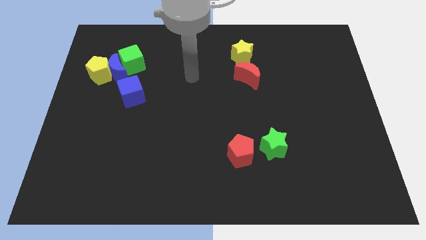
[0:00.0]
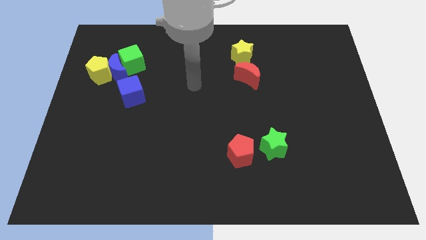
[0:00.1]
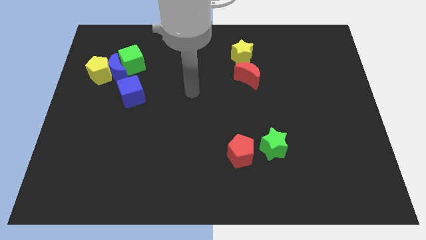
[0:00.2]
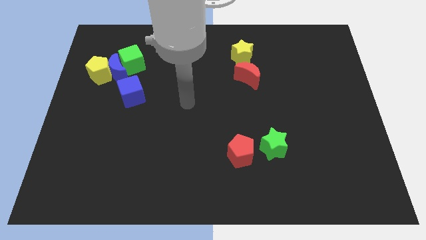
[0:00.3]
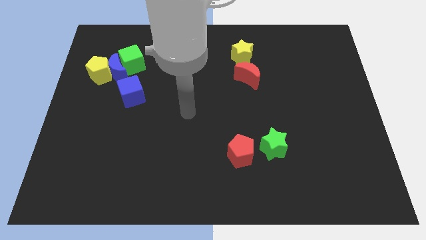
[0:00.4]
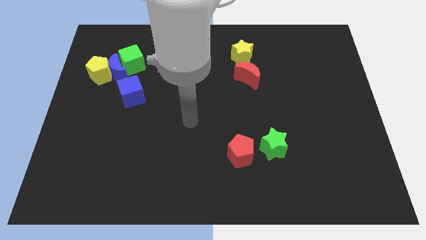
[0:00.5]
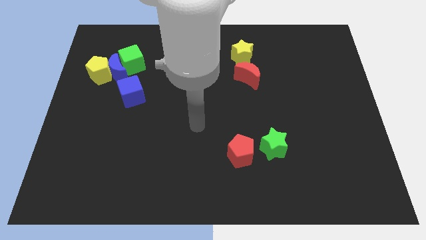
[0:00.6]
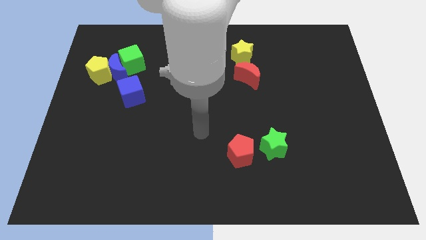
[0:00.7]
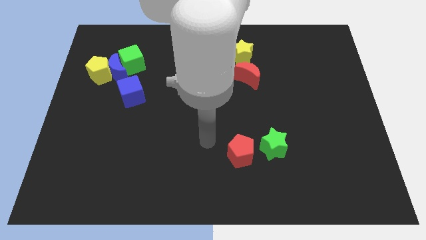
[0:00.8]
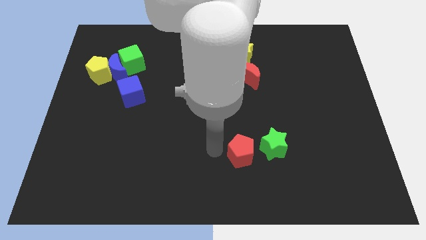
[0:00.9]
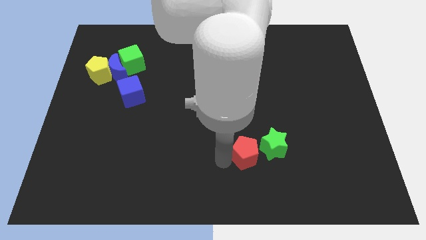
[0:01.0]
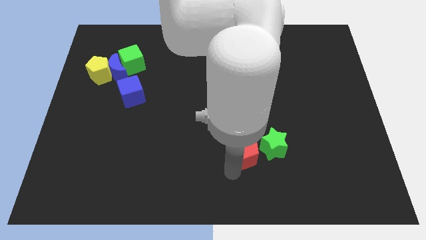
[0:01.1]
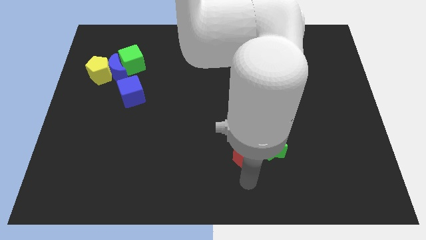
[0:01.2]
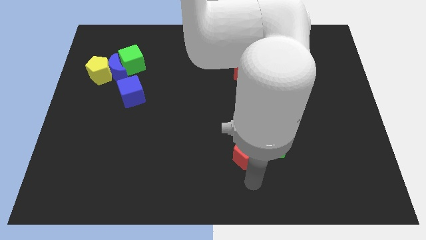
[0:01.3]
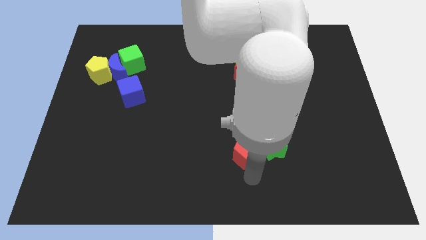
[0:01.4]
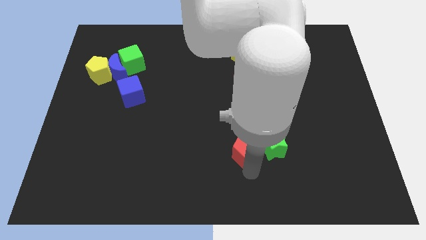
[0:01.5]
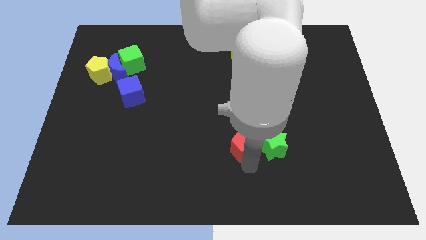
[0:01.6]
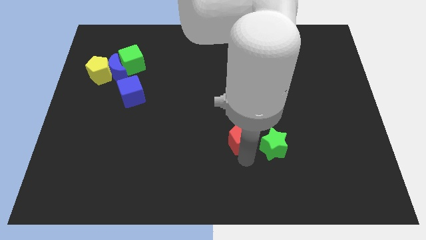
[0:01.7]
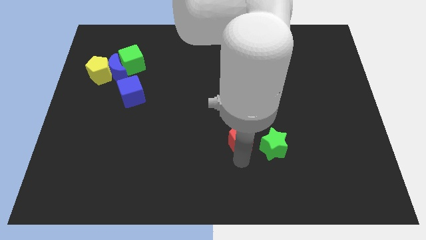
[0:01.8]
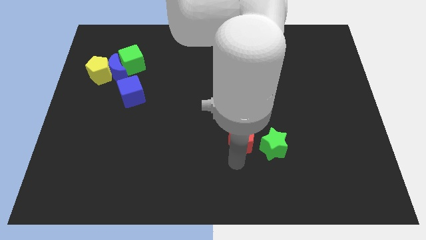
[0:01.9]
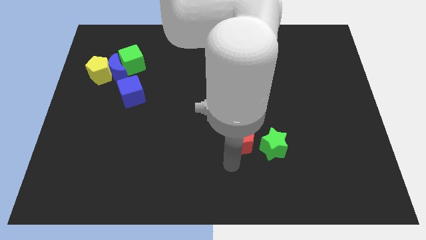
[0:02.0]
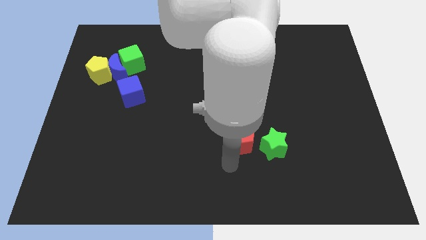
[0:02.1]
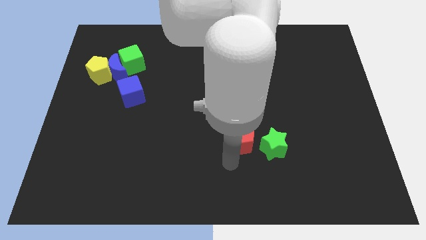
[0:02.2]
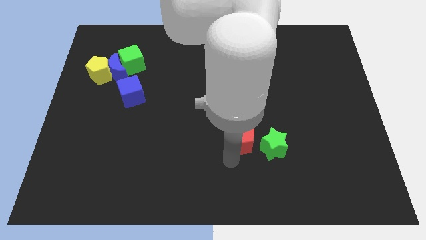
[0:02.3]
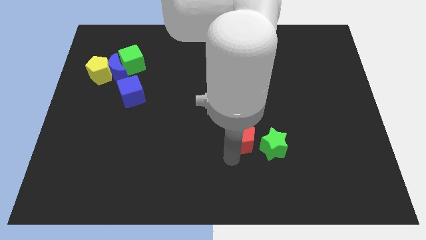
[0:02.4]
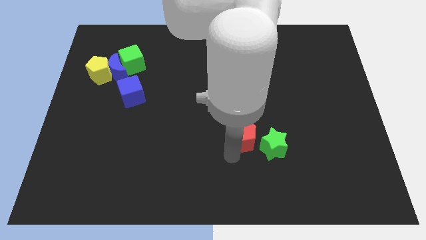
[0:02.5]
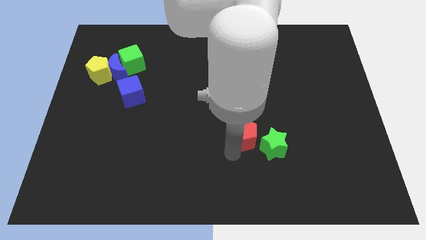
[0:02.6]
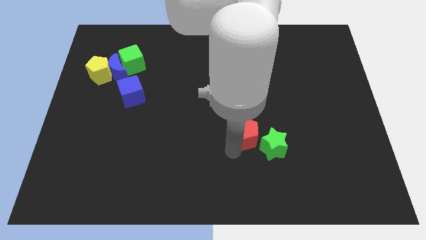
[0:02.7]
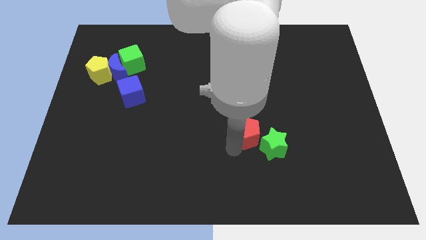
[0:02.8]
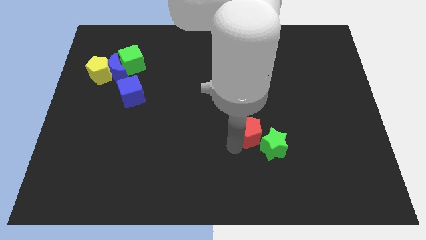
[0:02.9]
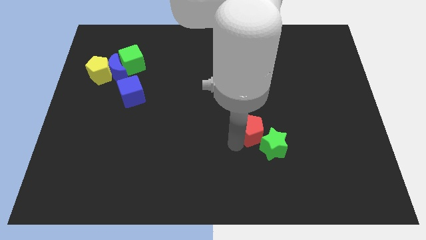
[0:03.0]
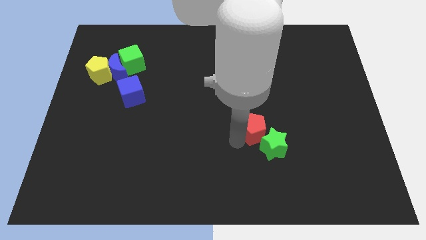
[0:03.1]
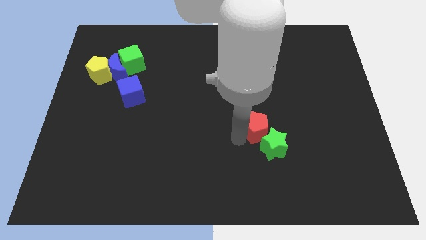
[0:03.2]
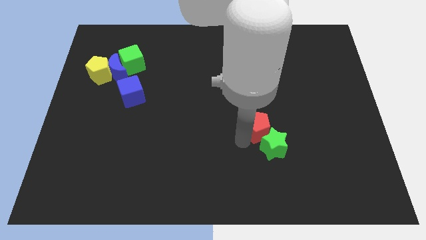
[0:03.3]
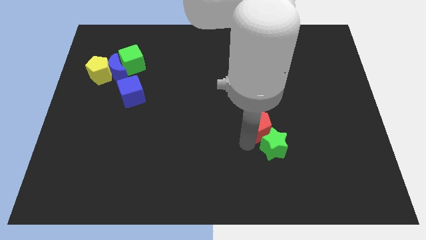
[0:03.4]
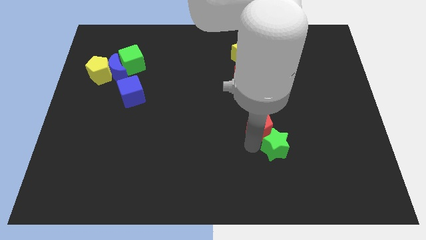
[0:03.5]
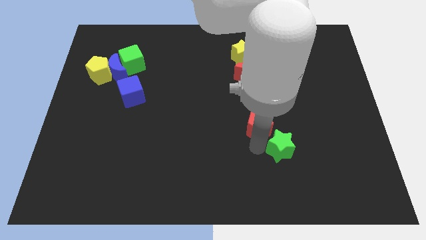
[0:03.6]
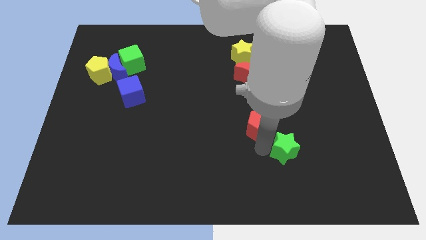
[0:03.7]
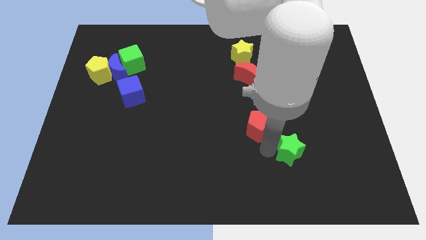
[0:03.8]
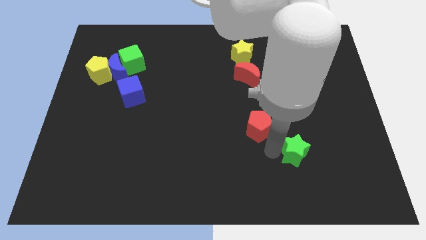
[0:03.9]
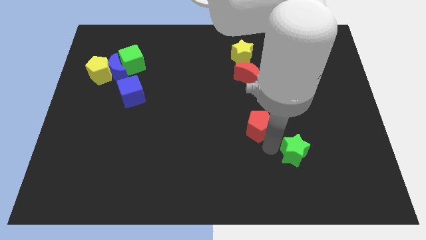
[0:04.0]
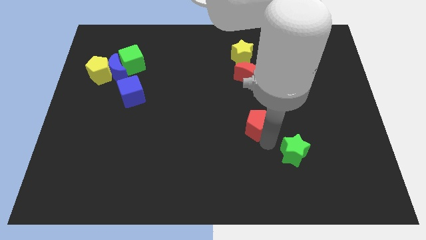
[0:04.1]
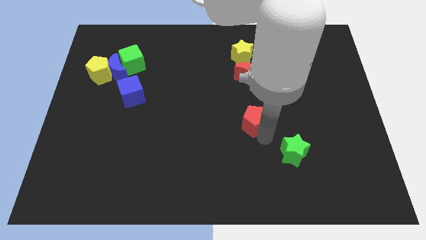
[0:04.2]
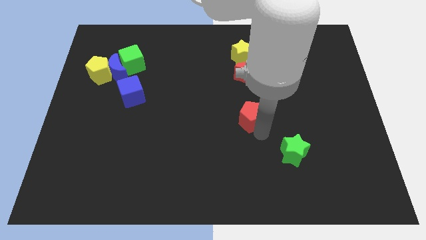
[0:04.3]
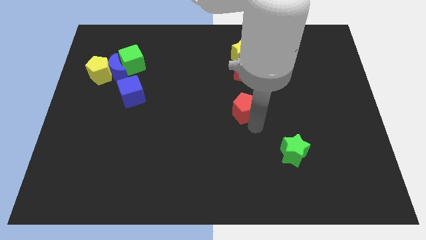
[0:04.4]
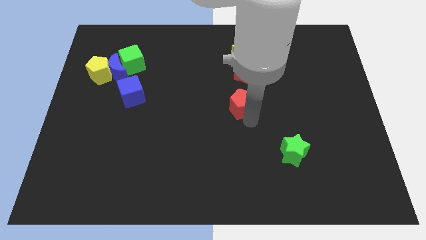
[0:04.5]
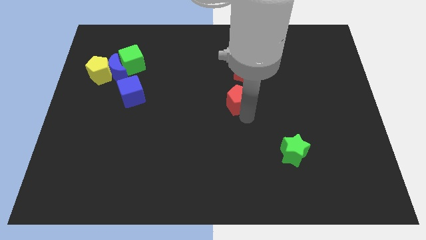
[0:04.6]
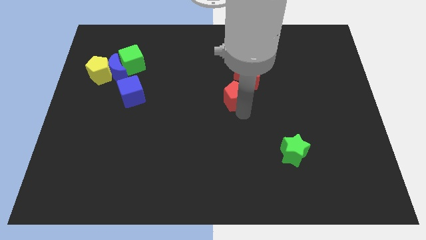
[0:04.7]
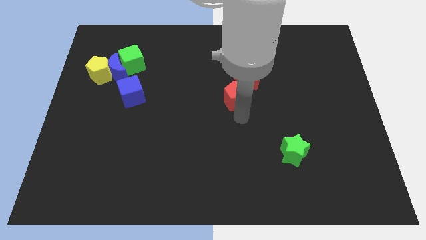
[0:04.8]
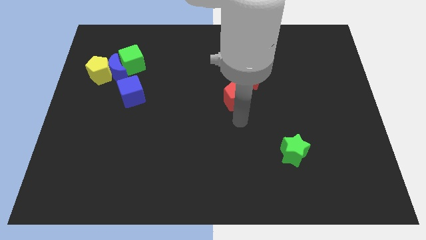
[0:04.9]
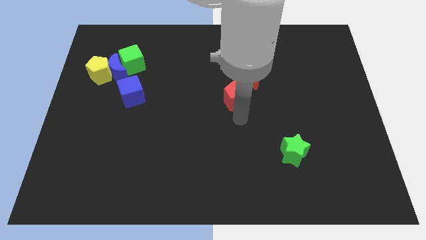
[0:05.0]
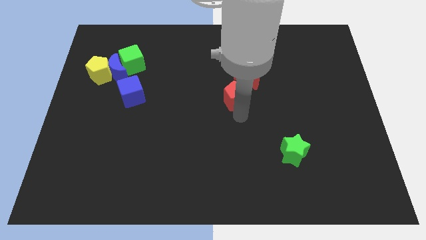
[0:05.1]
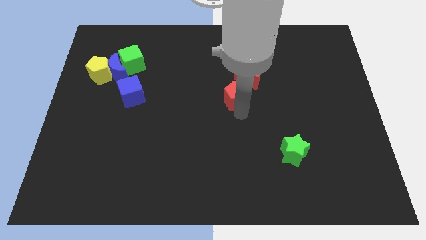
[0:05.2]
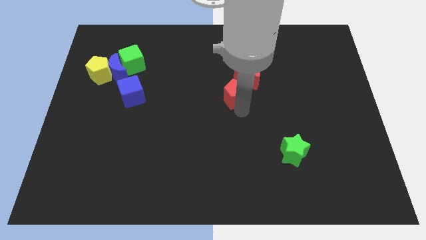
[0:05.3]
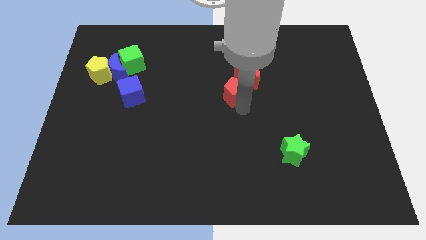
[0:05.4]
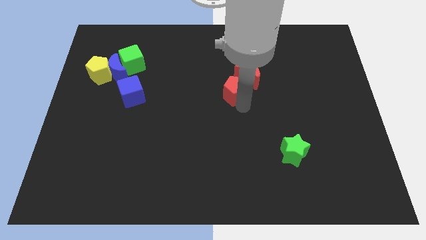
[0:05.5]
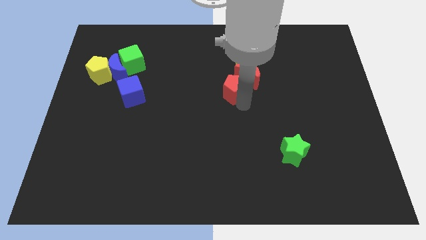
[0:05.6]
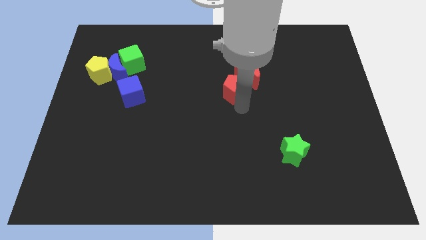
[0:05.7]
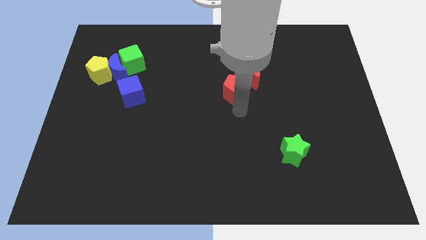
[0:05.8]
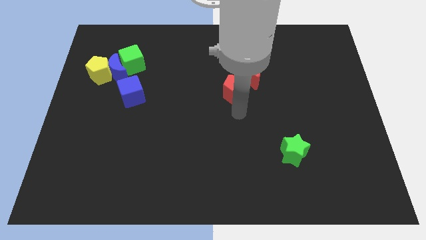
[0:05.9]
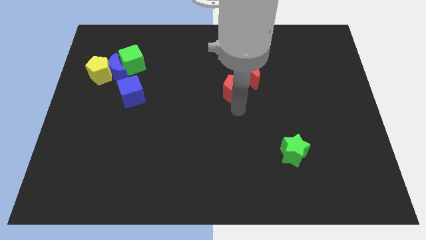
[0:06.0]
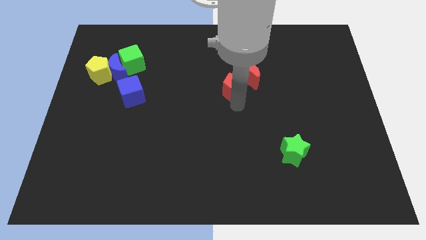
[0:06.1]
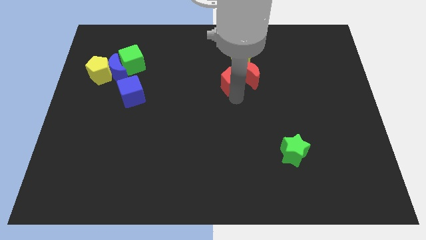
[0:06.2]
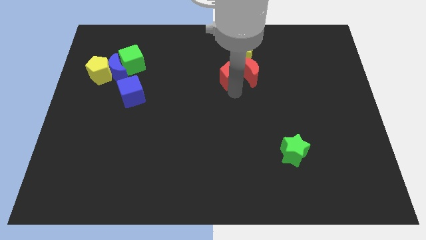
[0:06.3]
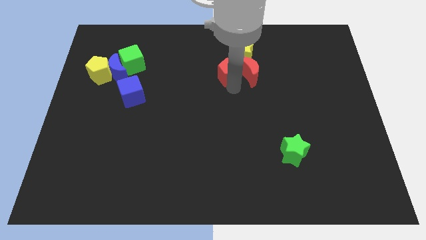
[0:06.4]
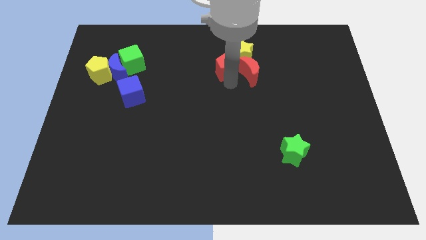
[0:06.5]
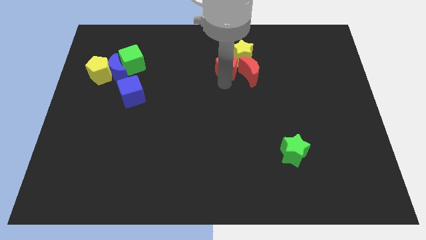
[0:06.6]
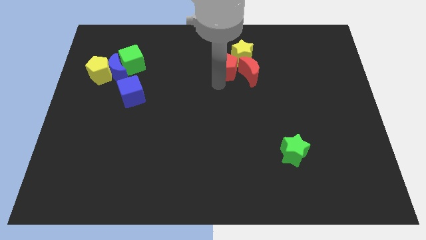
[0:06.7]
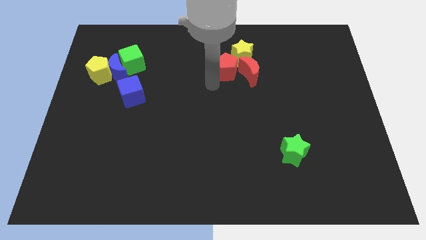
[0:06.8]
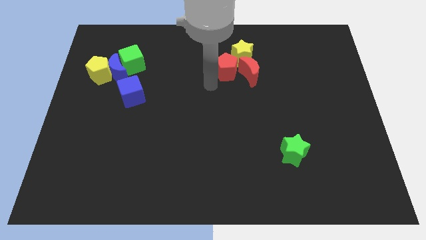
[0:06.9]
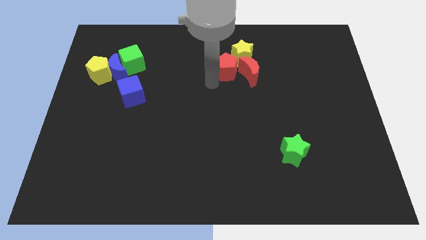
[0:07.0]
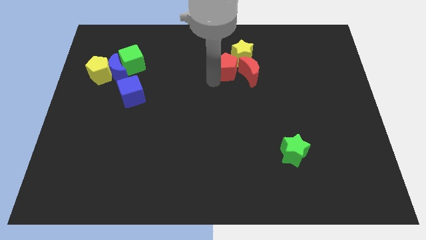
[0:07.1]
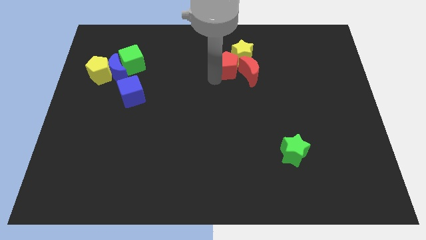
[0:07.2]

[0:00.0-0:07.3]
move the red pentagon towards the yellow star

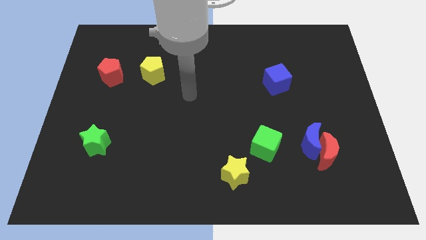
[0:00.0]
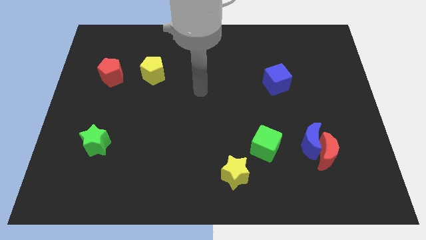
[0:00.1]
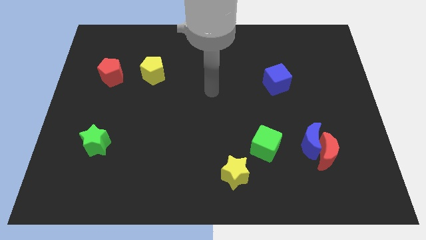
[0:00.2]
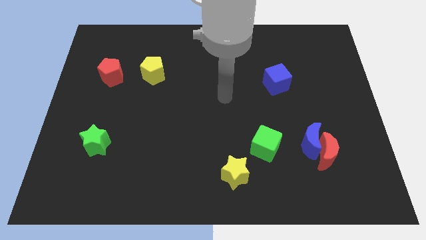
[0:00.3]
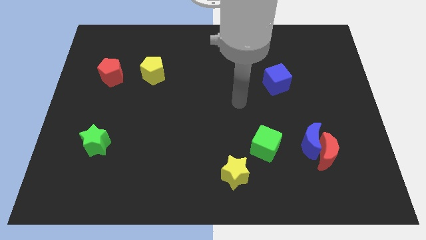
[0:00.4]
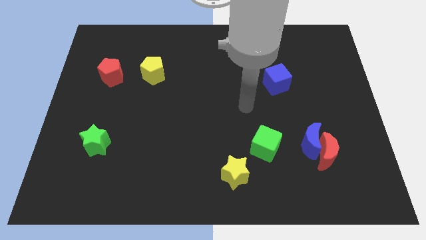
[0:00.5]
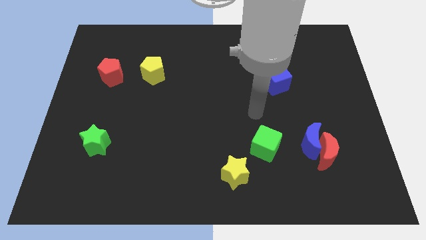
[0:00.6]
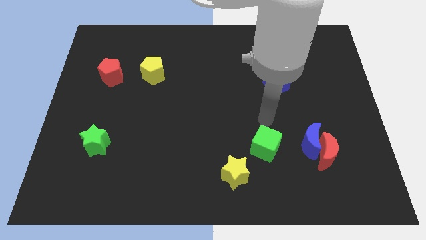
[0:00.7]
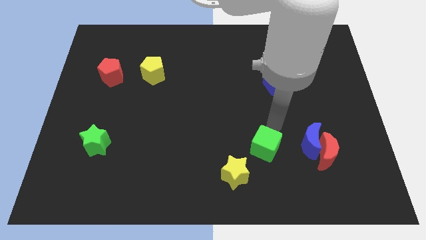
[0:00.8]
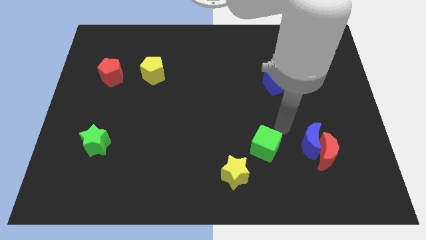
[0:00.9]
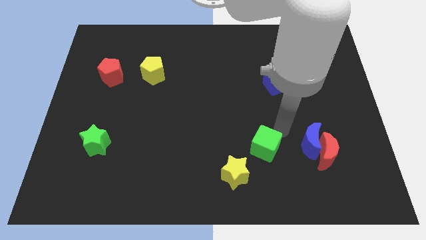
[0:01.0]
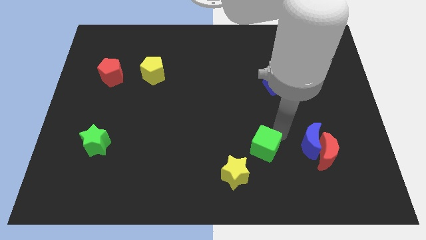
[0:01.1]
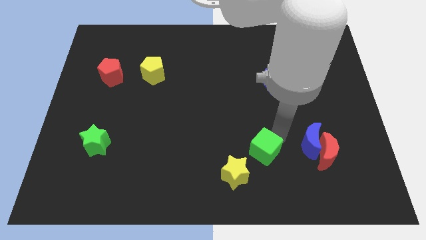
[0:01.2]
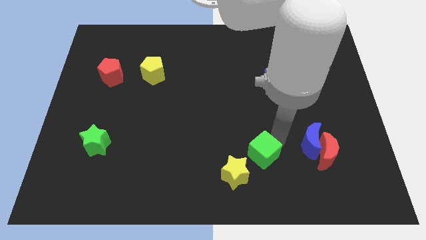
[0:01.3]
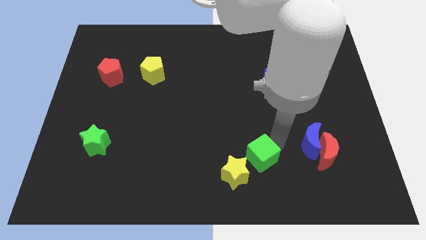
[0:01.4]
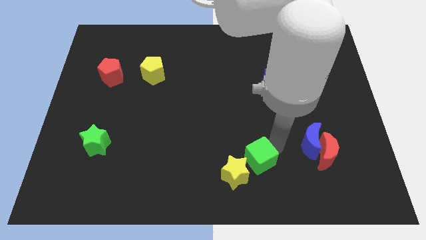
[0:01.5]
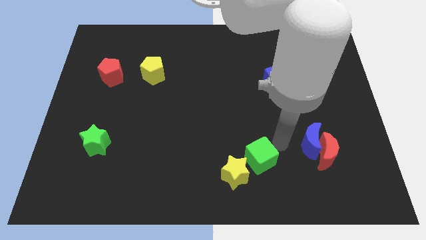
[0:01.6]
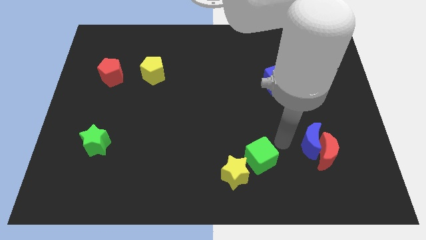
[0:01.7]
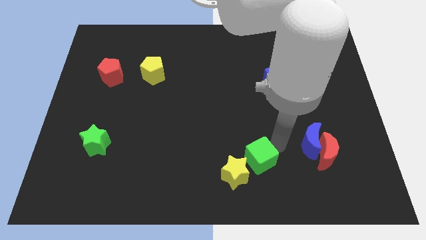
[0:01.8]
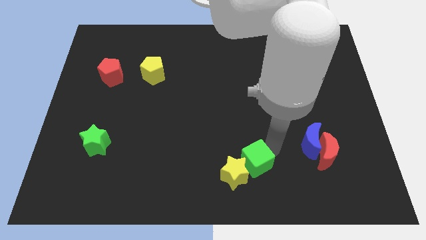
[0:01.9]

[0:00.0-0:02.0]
push the green cube to the yellow star
